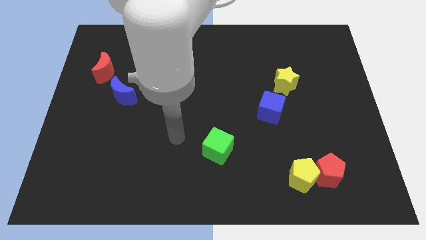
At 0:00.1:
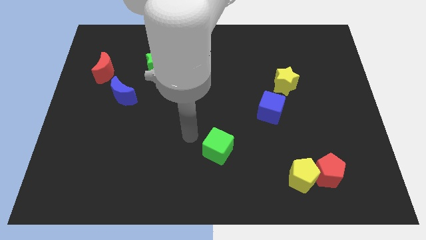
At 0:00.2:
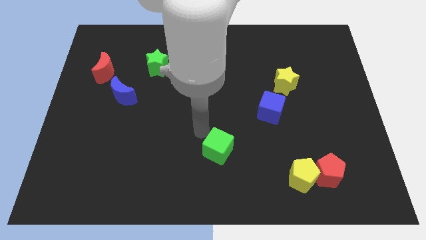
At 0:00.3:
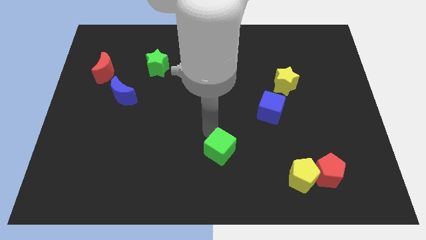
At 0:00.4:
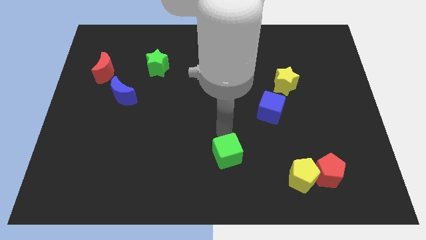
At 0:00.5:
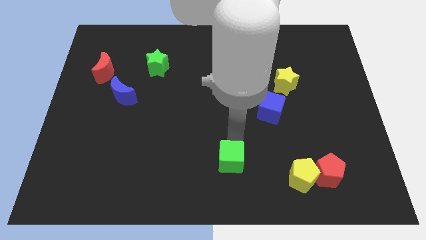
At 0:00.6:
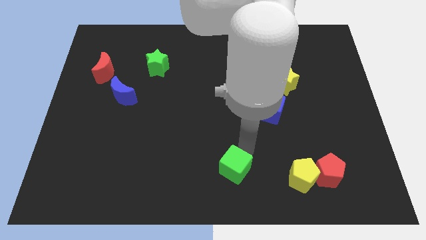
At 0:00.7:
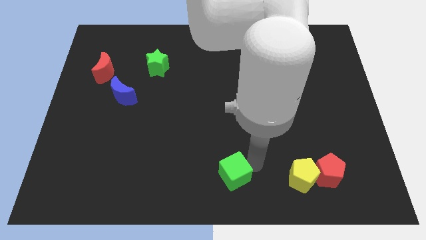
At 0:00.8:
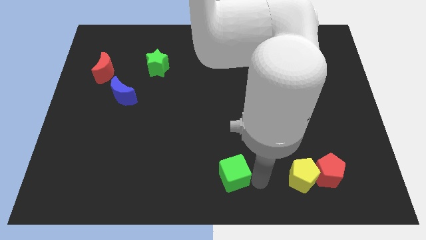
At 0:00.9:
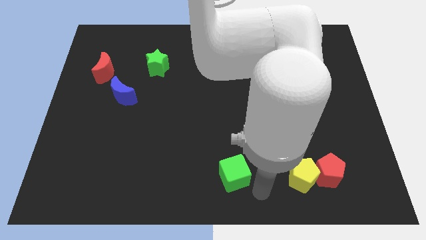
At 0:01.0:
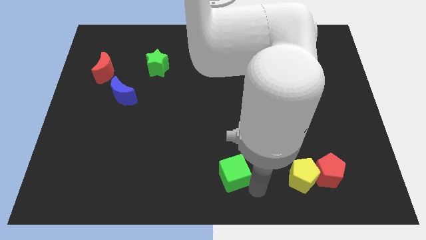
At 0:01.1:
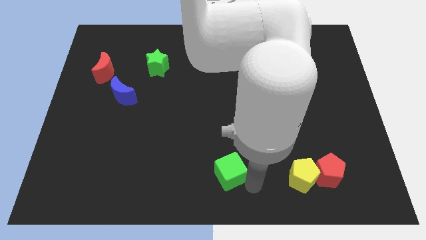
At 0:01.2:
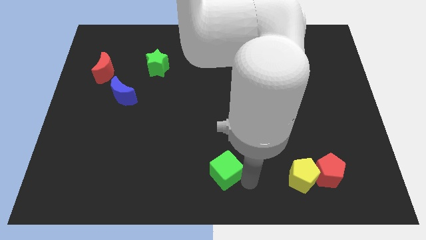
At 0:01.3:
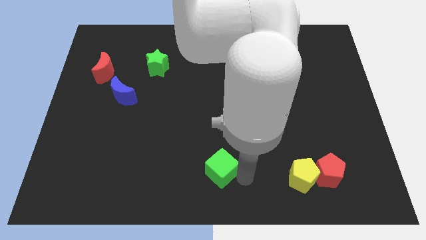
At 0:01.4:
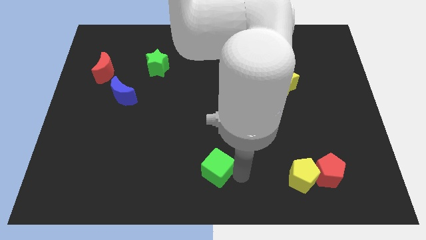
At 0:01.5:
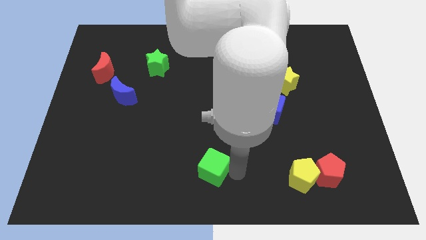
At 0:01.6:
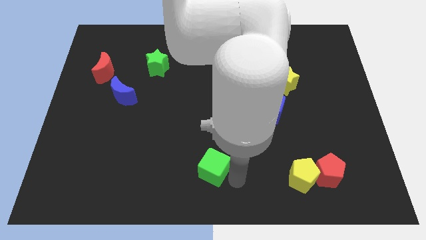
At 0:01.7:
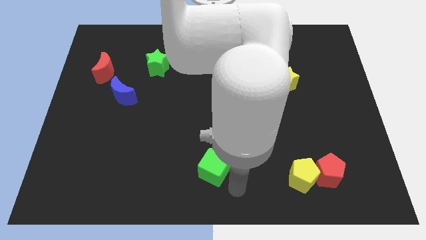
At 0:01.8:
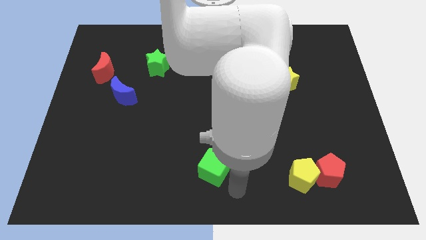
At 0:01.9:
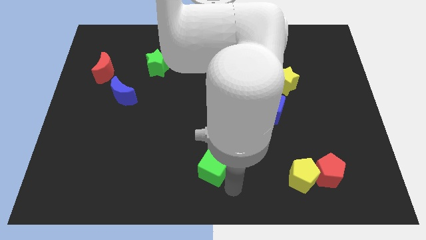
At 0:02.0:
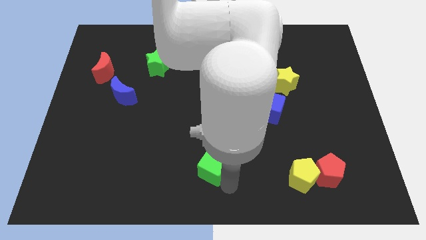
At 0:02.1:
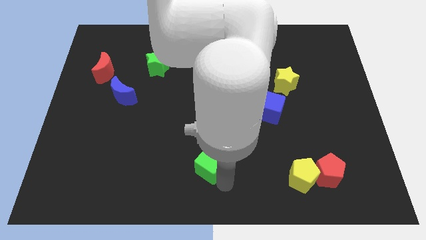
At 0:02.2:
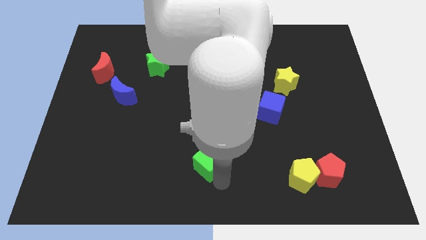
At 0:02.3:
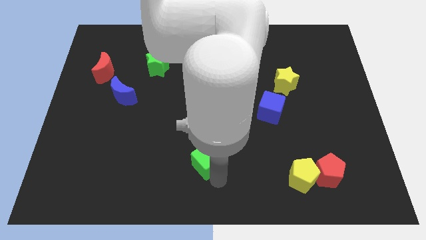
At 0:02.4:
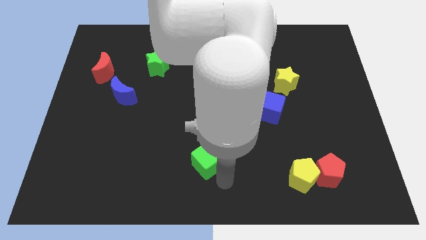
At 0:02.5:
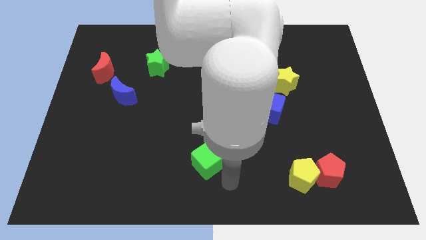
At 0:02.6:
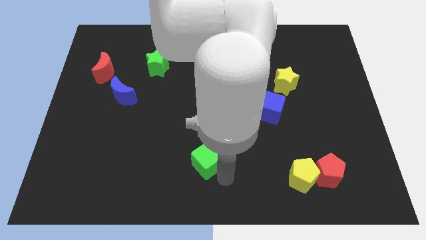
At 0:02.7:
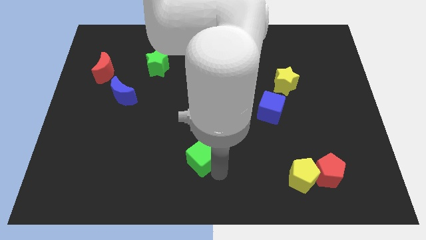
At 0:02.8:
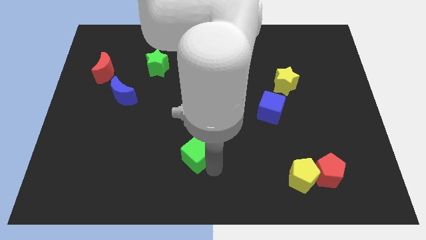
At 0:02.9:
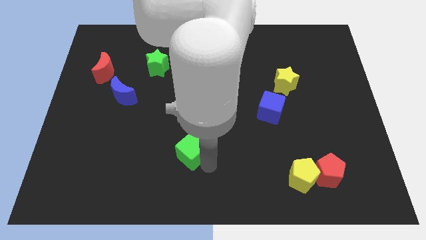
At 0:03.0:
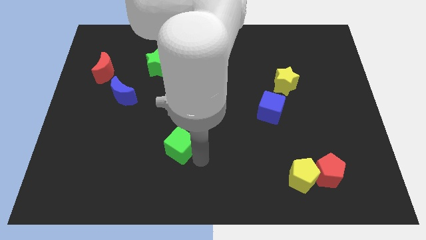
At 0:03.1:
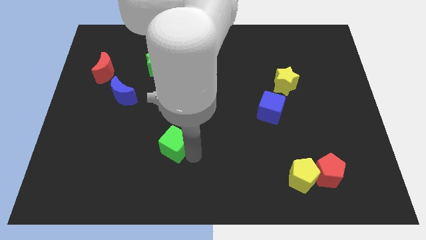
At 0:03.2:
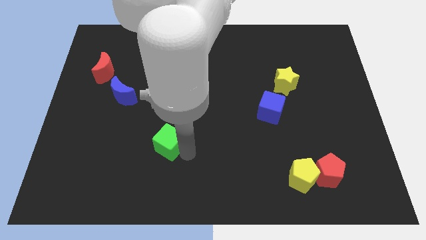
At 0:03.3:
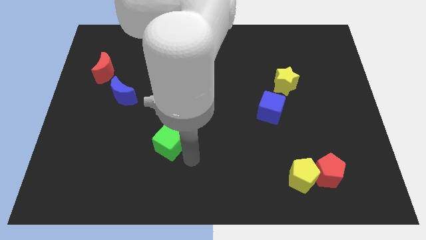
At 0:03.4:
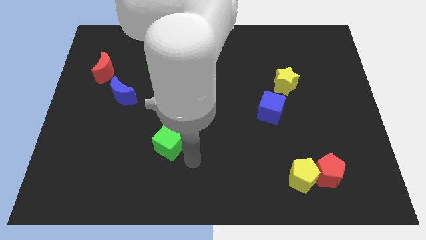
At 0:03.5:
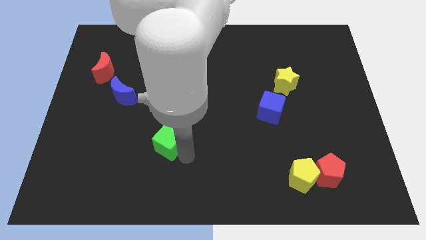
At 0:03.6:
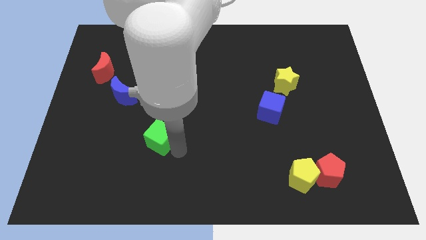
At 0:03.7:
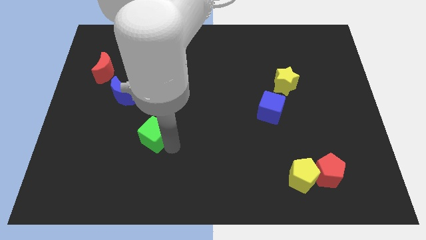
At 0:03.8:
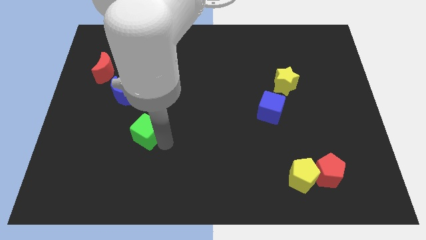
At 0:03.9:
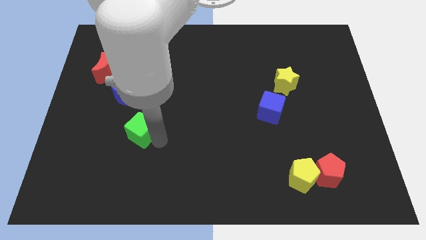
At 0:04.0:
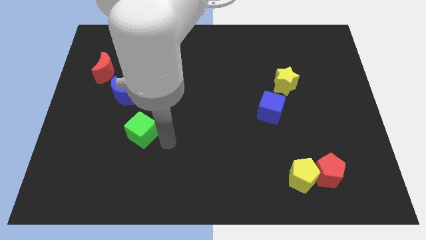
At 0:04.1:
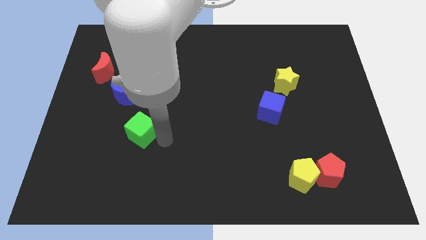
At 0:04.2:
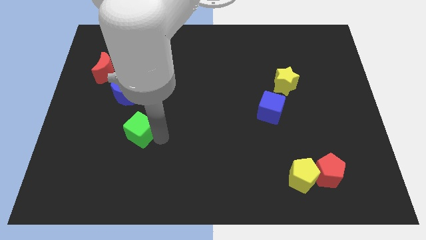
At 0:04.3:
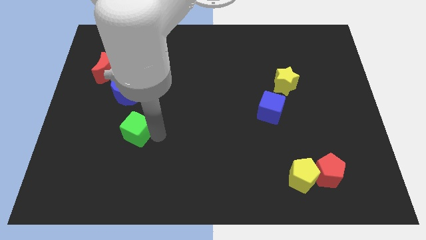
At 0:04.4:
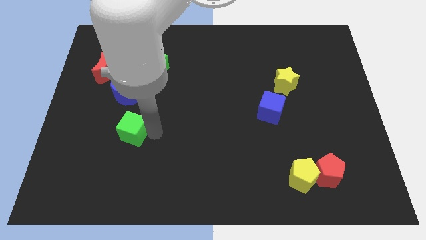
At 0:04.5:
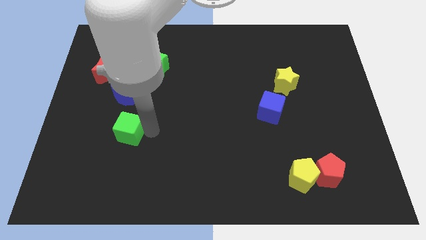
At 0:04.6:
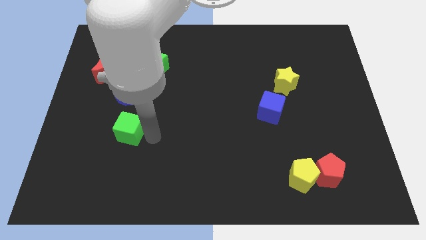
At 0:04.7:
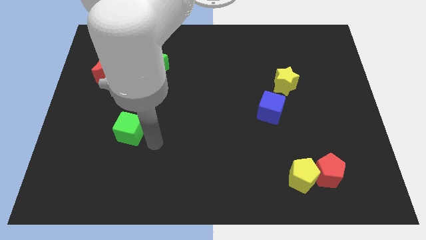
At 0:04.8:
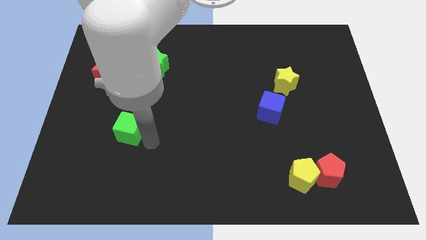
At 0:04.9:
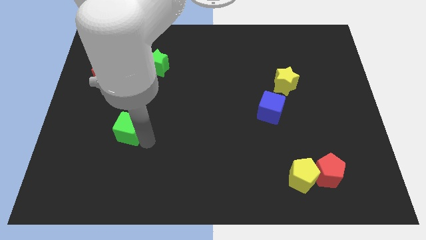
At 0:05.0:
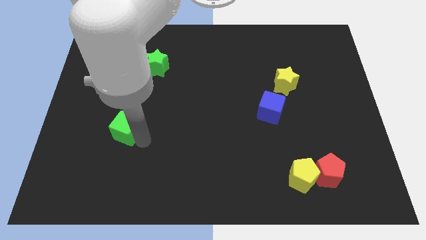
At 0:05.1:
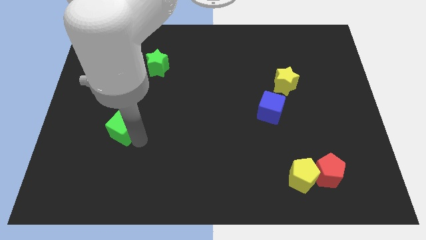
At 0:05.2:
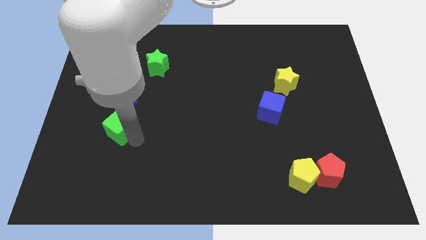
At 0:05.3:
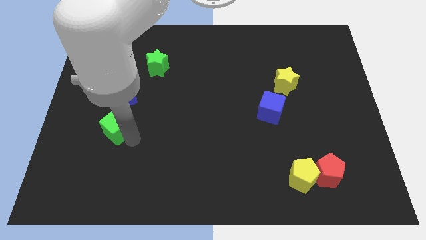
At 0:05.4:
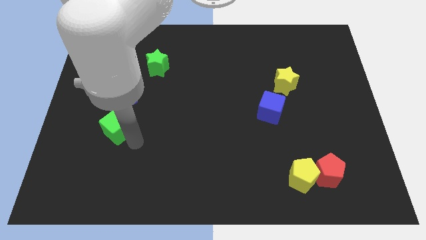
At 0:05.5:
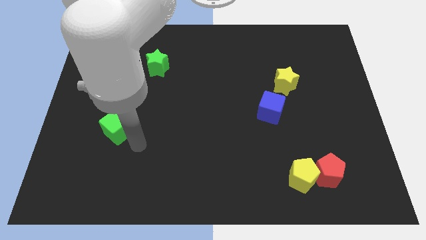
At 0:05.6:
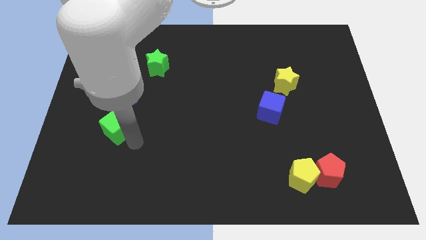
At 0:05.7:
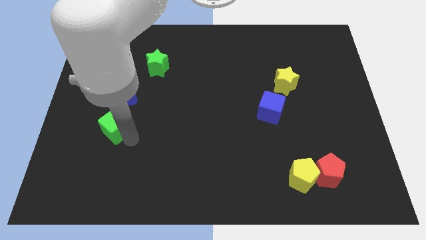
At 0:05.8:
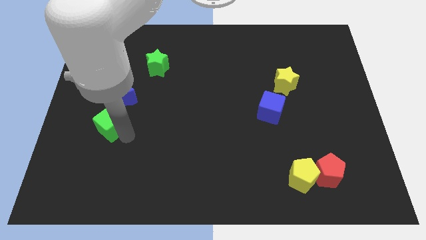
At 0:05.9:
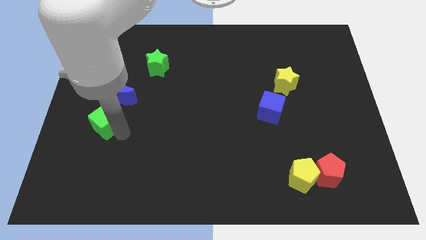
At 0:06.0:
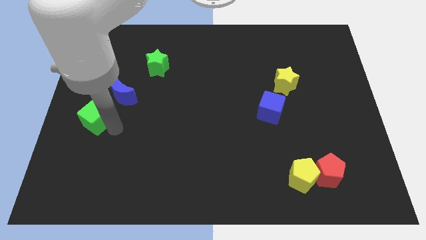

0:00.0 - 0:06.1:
move the green cube to the left side

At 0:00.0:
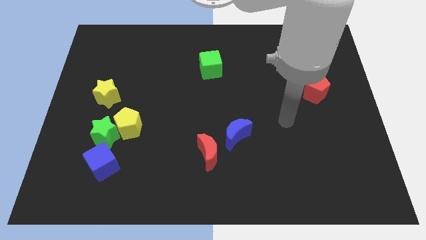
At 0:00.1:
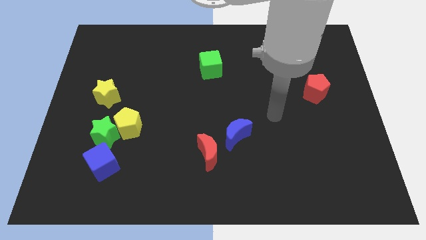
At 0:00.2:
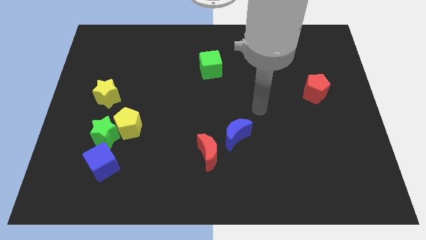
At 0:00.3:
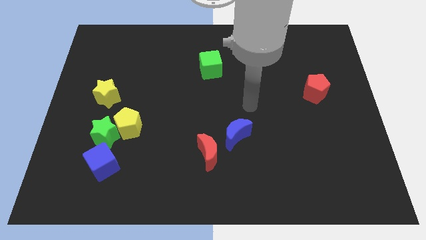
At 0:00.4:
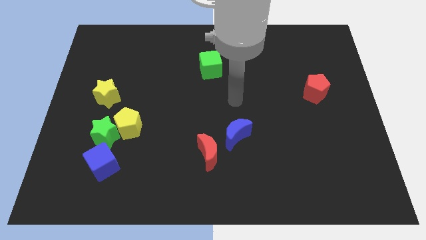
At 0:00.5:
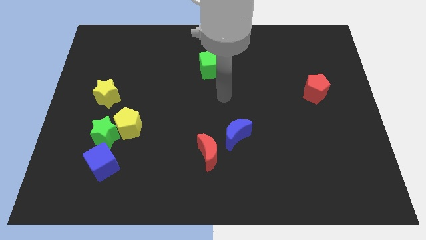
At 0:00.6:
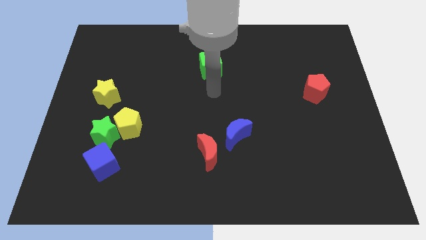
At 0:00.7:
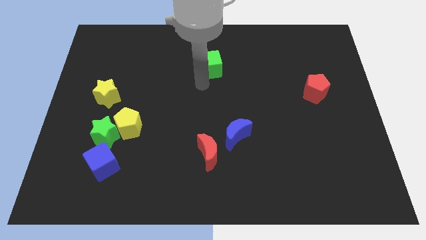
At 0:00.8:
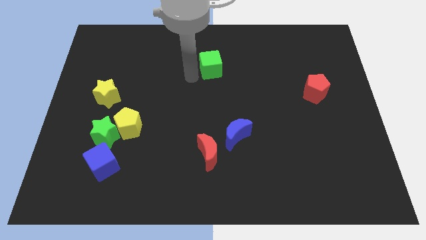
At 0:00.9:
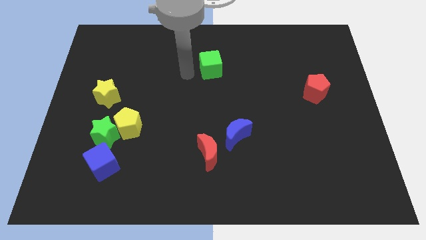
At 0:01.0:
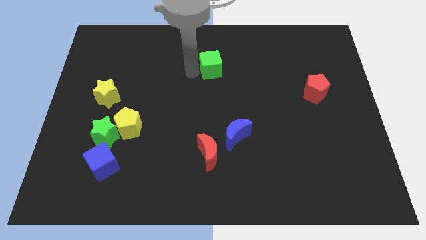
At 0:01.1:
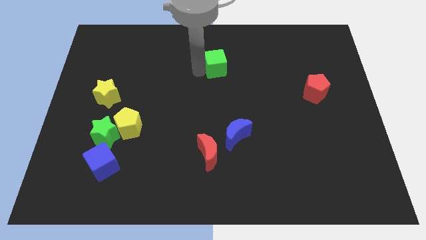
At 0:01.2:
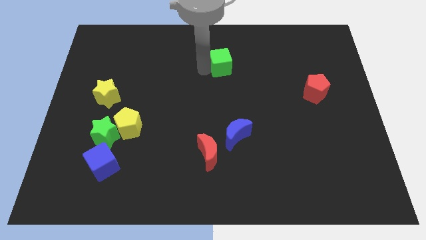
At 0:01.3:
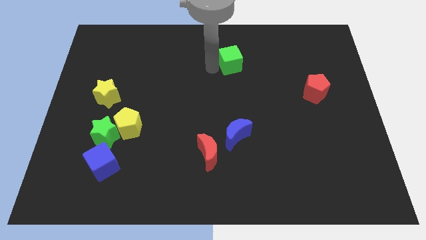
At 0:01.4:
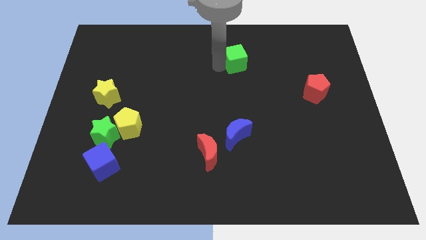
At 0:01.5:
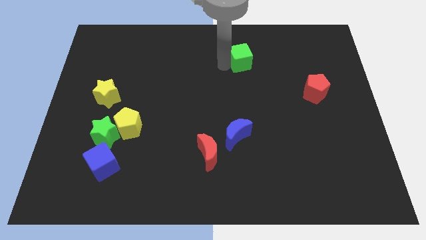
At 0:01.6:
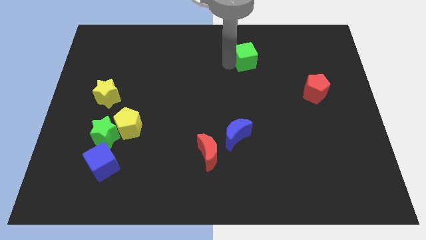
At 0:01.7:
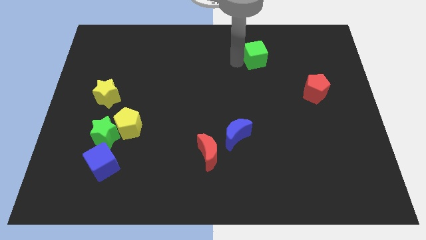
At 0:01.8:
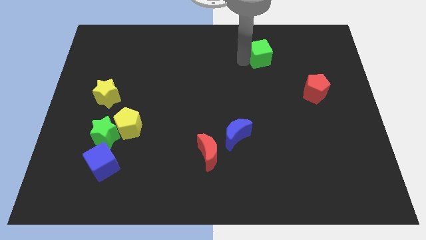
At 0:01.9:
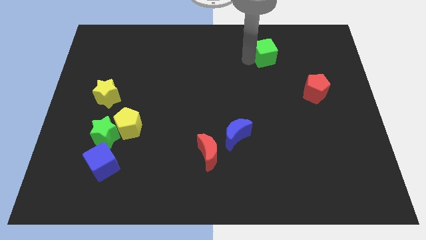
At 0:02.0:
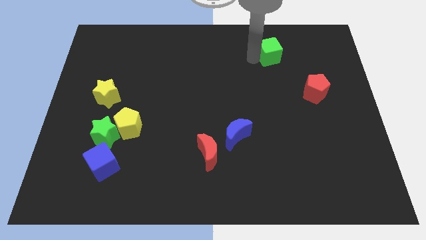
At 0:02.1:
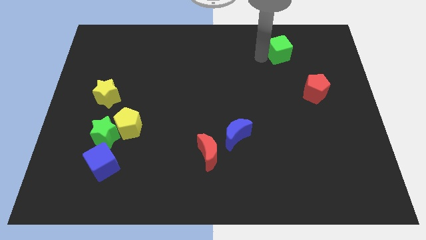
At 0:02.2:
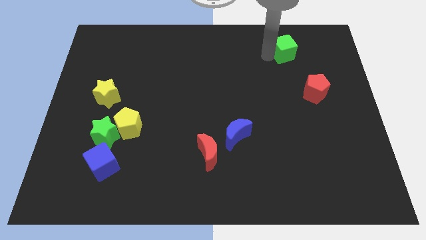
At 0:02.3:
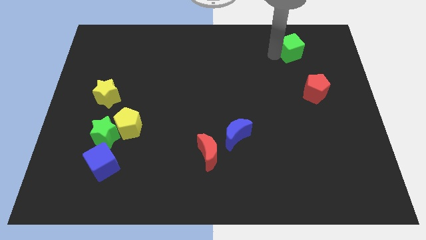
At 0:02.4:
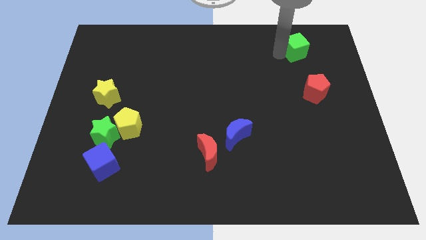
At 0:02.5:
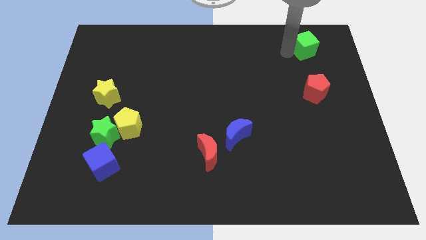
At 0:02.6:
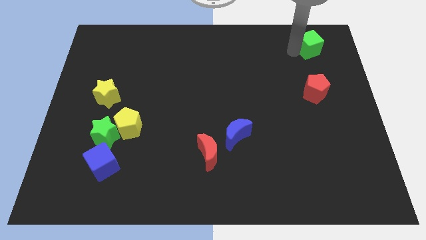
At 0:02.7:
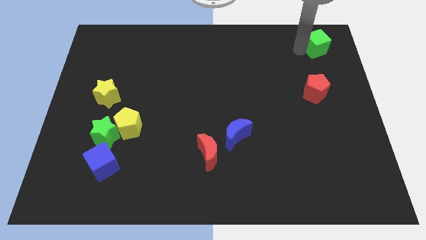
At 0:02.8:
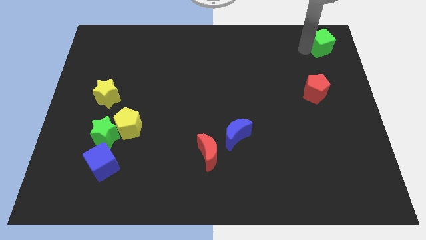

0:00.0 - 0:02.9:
move the green cube to the upper right corner
